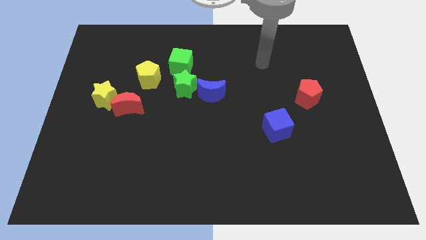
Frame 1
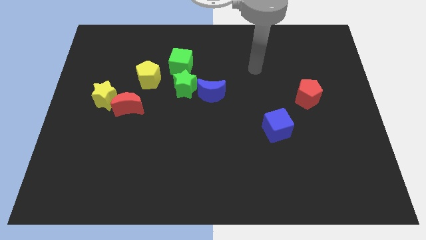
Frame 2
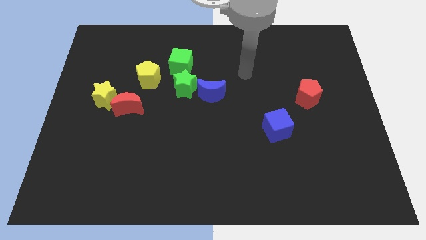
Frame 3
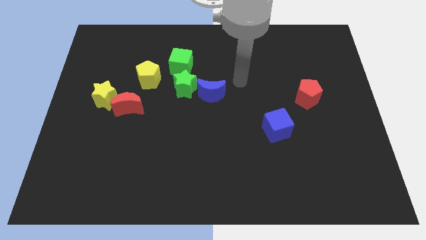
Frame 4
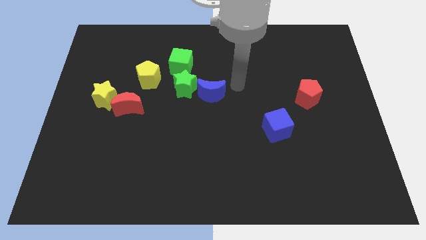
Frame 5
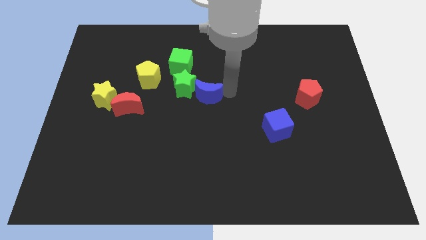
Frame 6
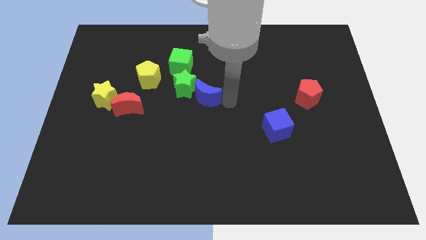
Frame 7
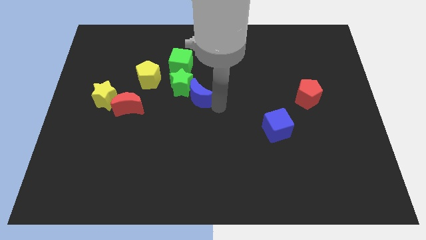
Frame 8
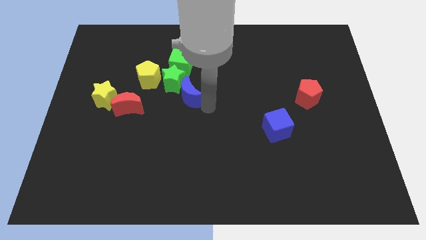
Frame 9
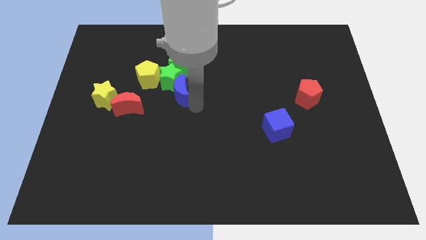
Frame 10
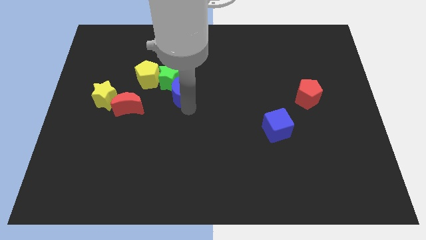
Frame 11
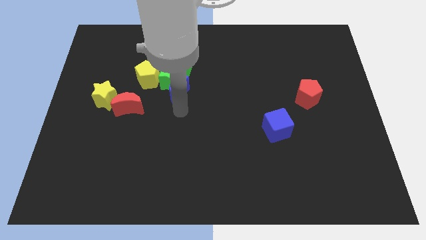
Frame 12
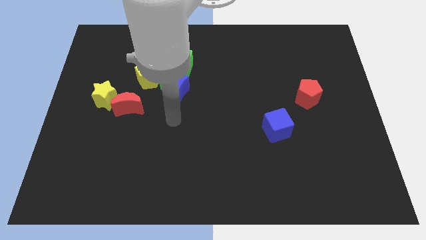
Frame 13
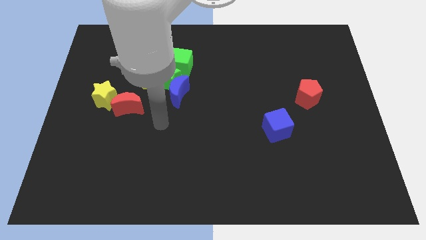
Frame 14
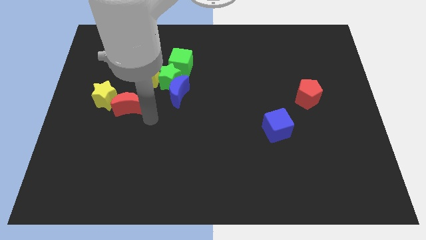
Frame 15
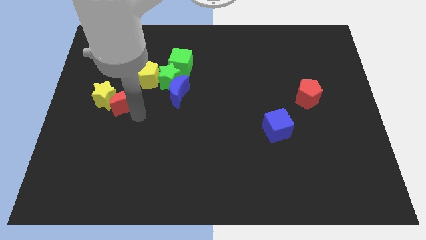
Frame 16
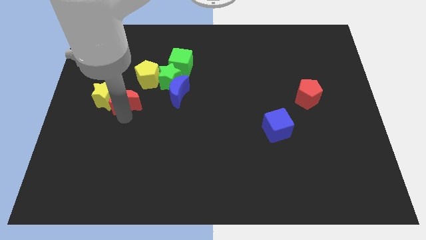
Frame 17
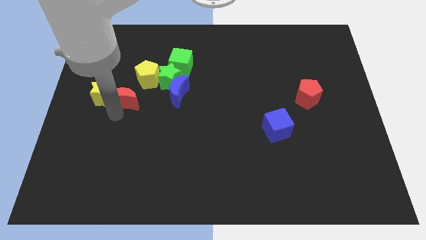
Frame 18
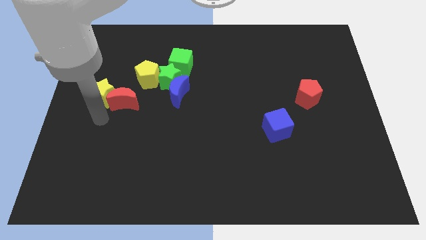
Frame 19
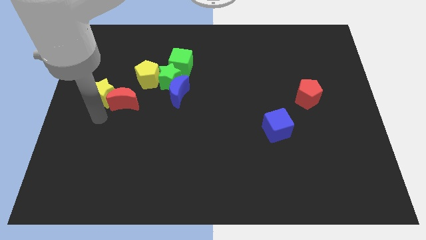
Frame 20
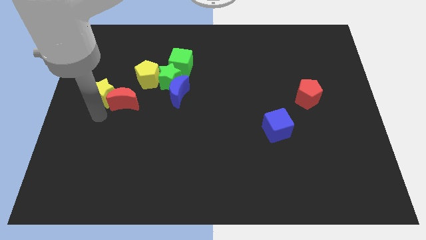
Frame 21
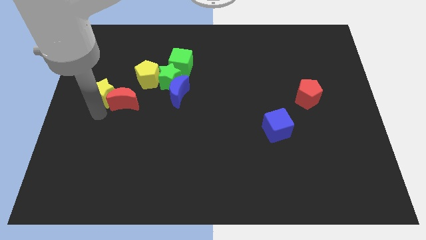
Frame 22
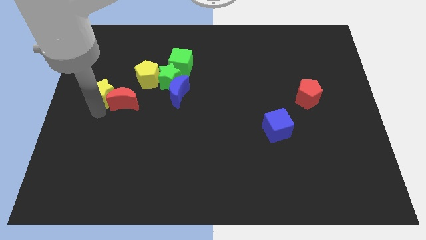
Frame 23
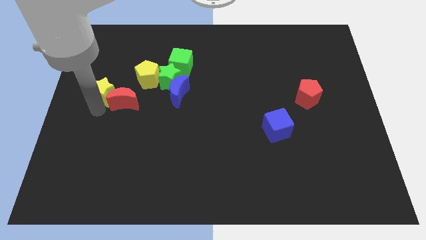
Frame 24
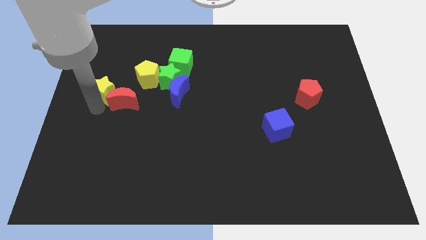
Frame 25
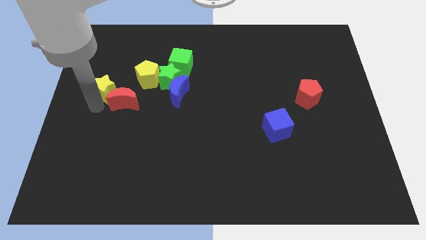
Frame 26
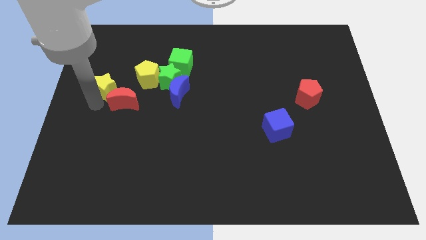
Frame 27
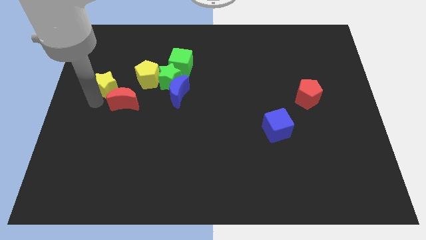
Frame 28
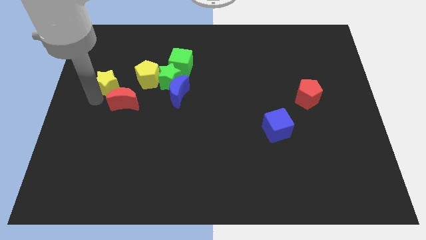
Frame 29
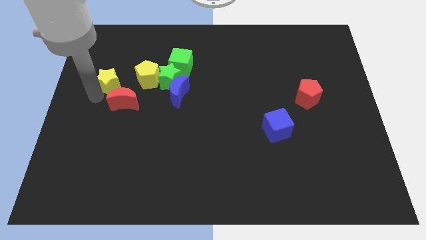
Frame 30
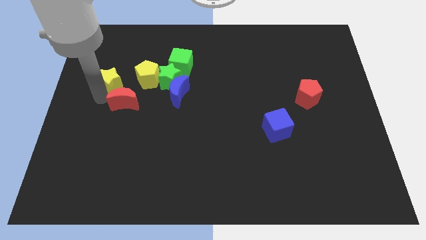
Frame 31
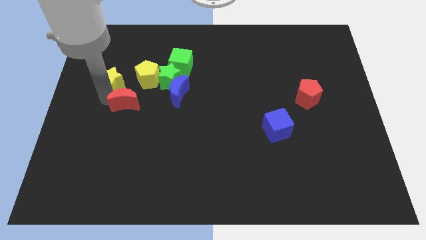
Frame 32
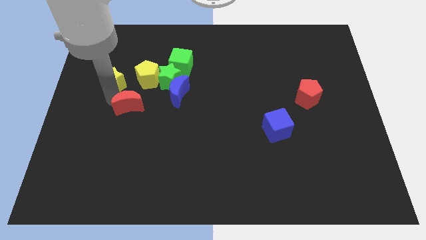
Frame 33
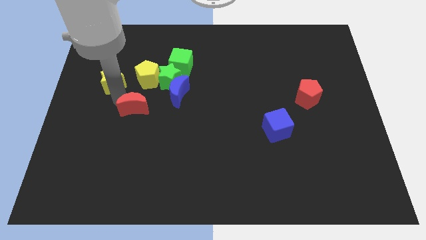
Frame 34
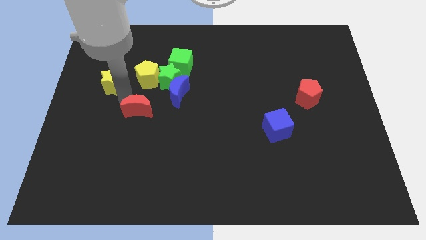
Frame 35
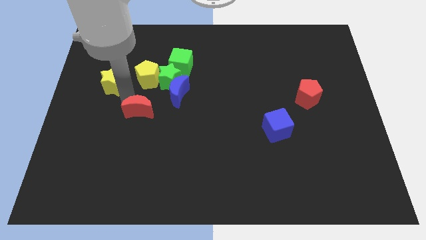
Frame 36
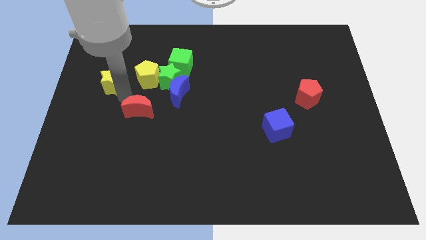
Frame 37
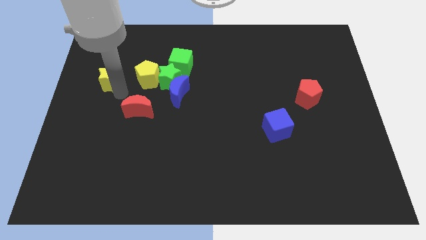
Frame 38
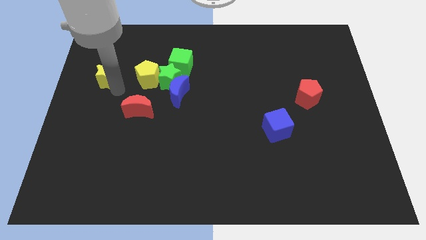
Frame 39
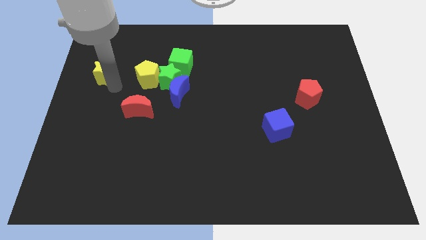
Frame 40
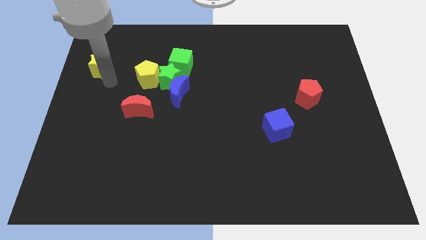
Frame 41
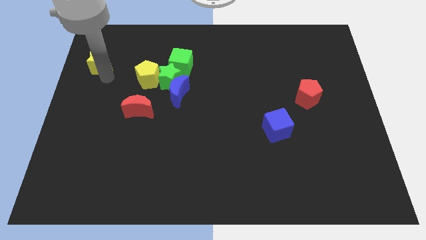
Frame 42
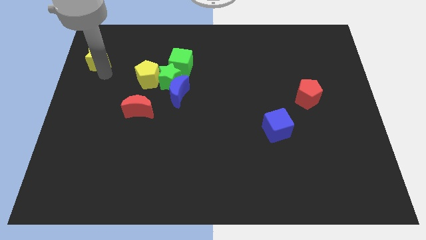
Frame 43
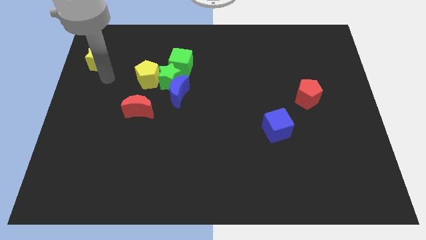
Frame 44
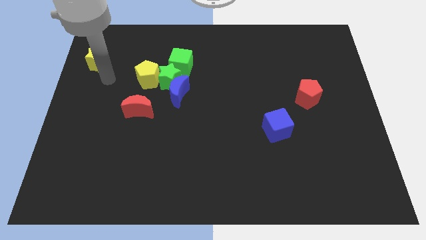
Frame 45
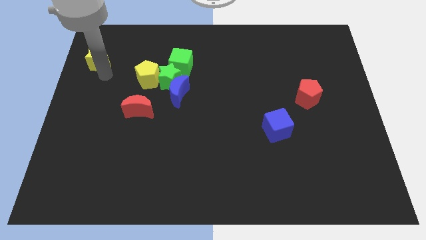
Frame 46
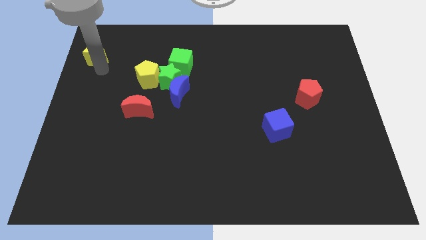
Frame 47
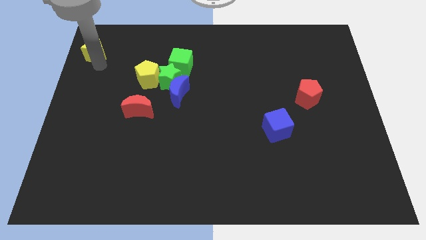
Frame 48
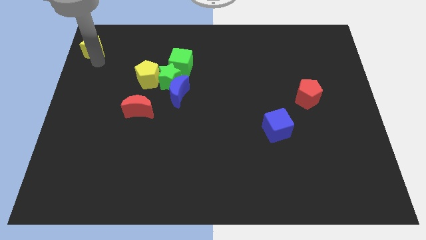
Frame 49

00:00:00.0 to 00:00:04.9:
move the yellow star to the upper left corner

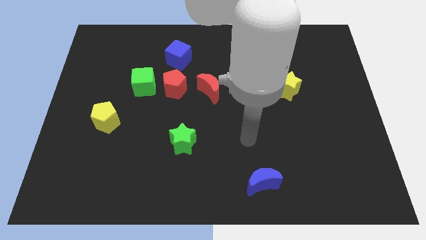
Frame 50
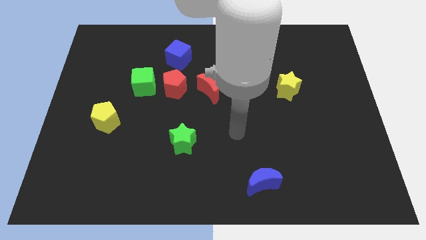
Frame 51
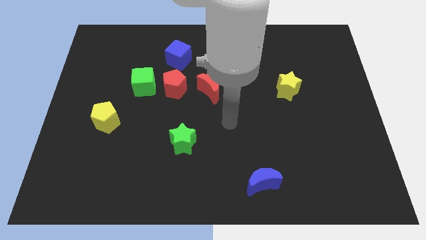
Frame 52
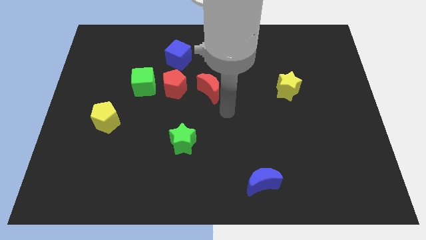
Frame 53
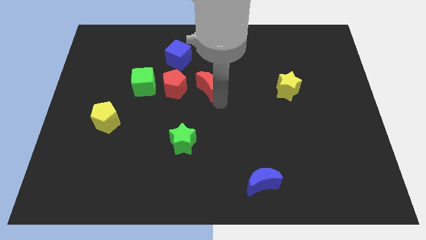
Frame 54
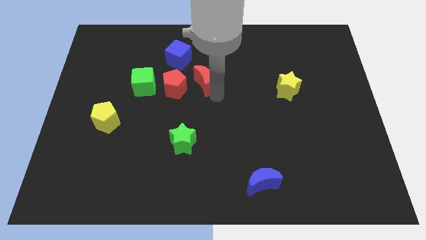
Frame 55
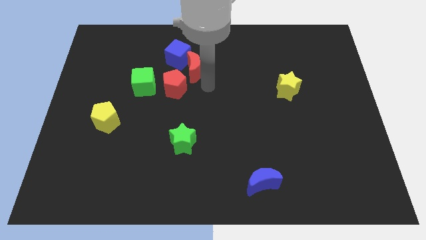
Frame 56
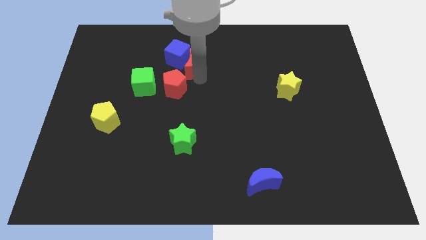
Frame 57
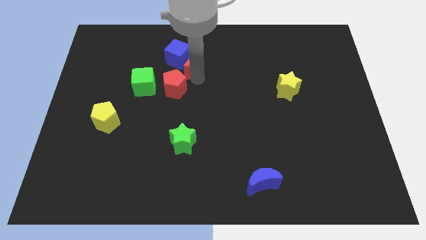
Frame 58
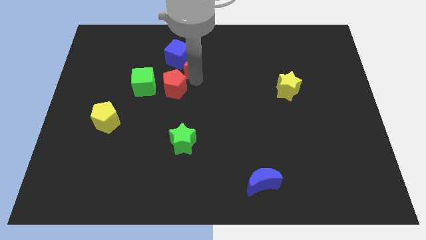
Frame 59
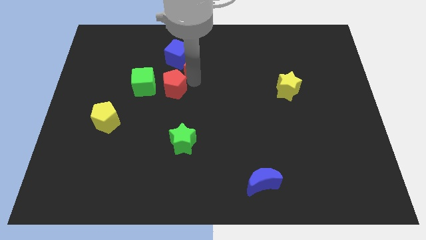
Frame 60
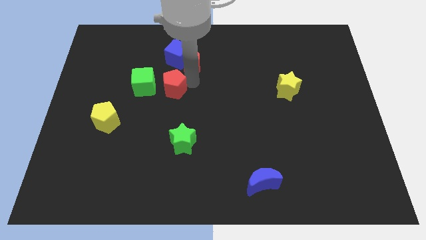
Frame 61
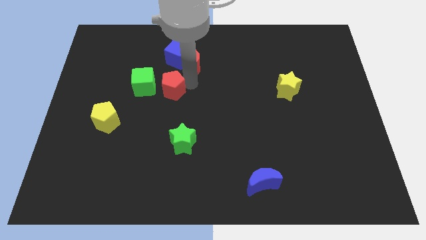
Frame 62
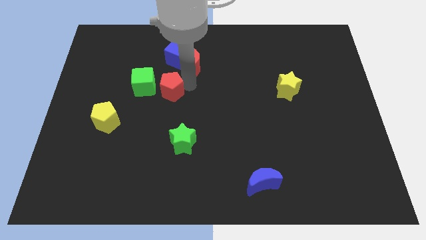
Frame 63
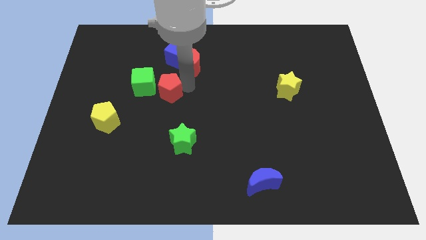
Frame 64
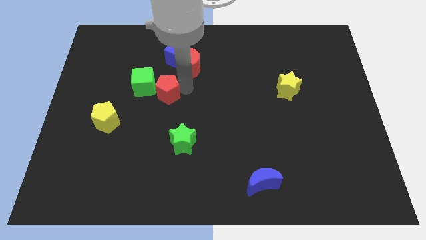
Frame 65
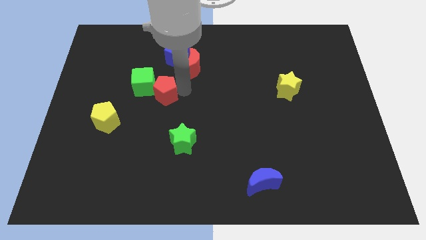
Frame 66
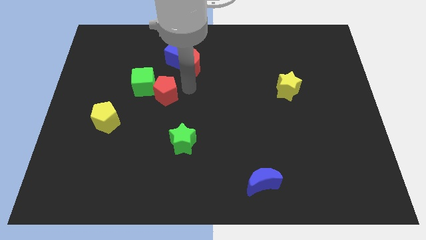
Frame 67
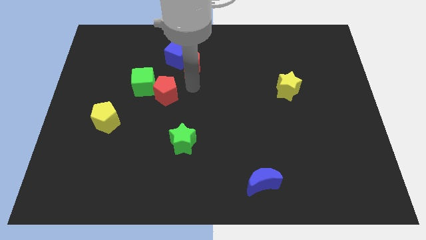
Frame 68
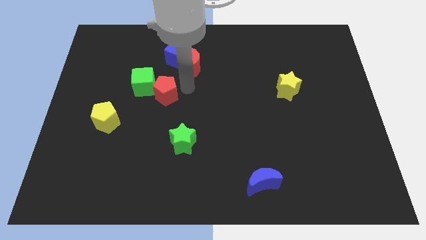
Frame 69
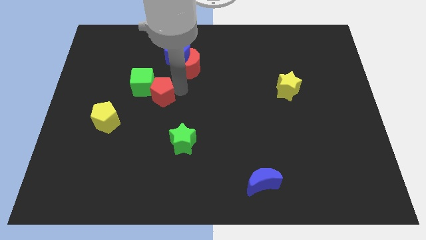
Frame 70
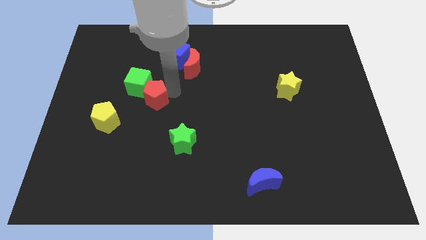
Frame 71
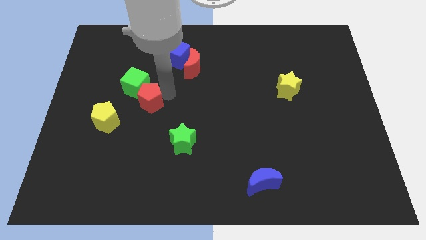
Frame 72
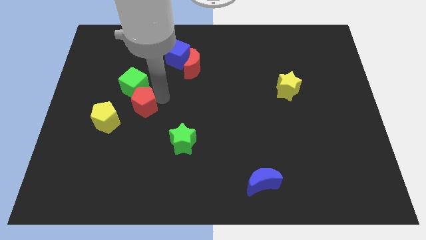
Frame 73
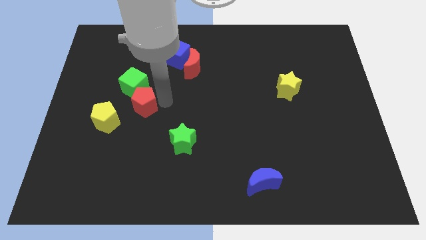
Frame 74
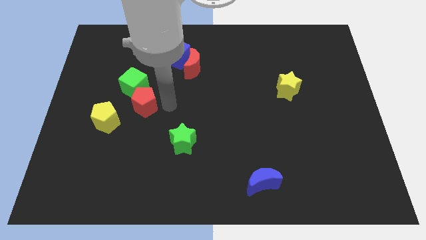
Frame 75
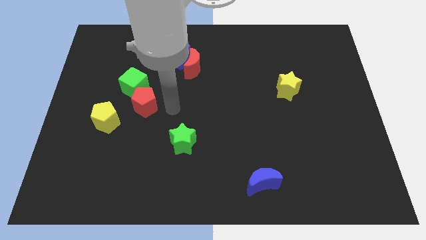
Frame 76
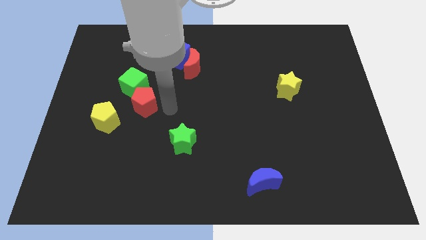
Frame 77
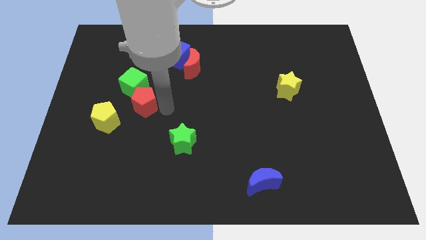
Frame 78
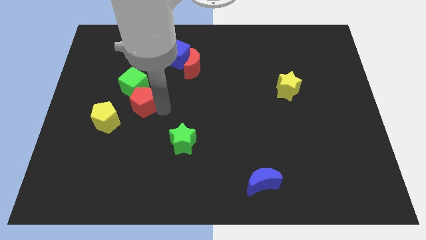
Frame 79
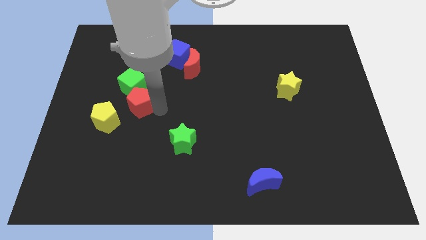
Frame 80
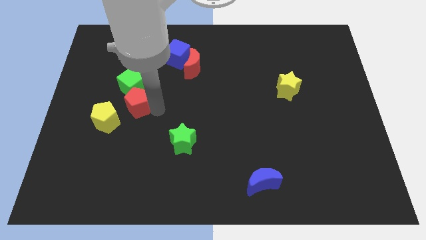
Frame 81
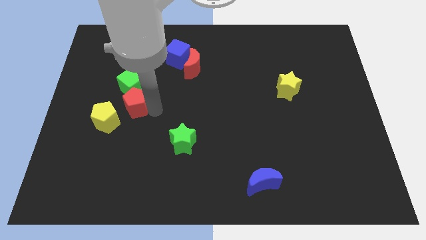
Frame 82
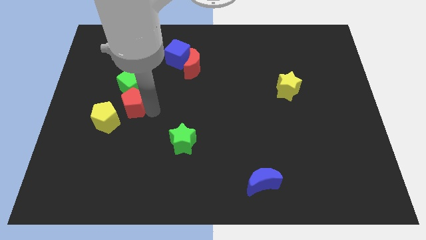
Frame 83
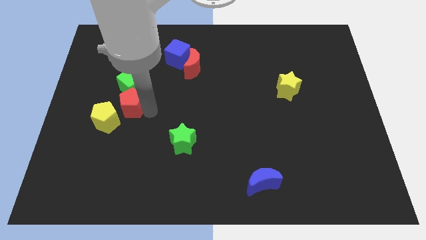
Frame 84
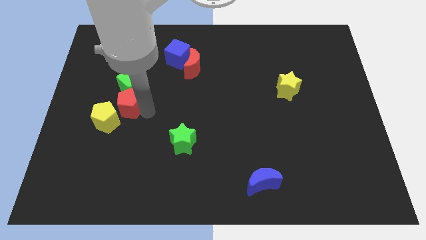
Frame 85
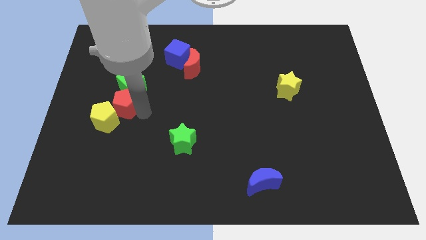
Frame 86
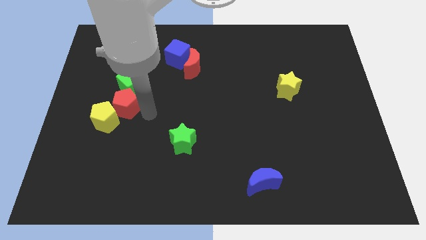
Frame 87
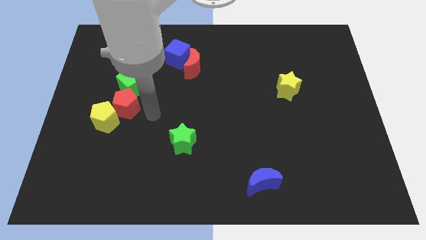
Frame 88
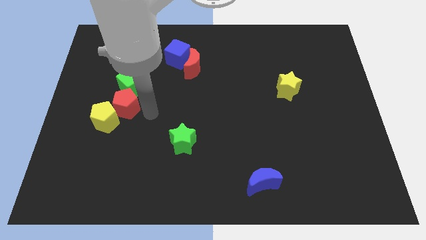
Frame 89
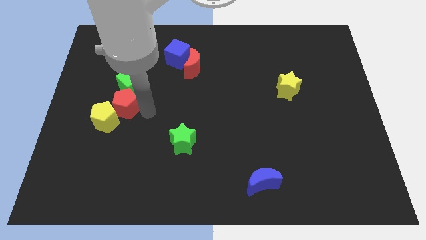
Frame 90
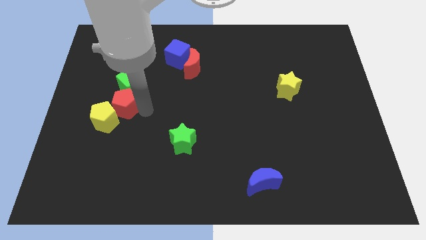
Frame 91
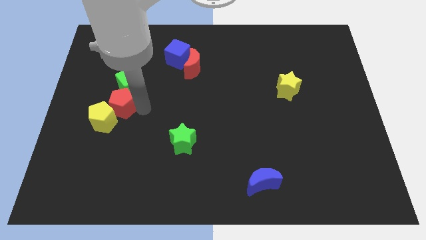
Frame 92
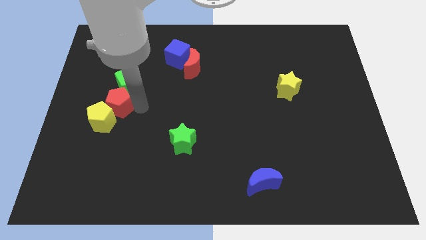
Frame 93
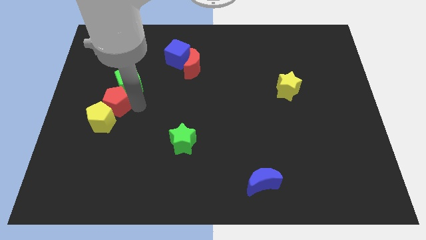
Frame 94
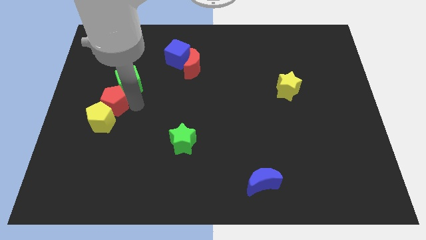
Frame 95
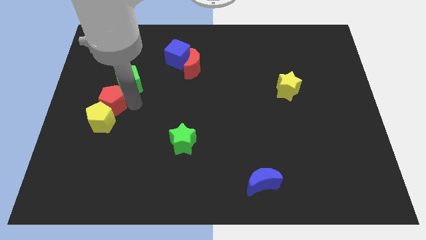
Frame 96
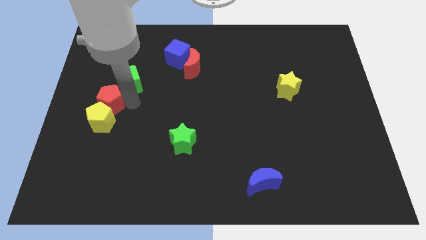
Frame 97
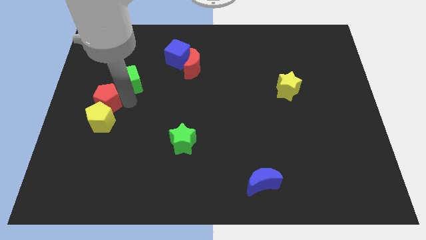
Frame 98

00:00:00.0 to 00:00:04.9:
move the red pentagon to the left side
